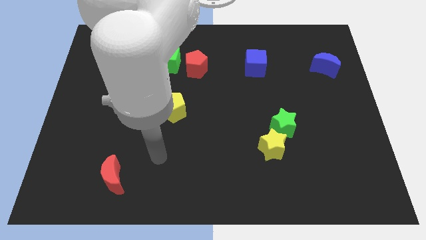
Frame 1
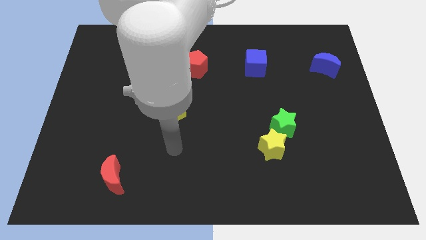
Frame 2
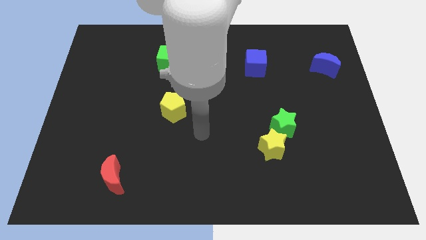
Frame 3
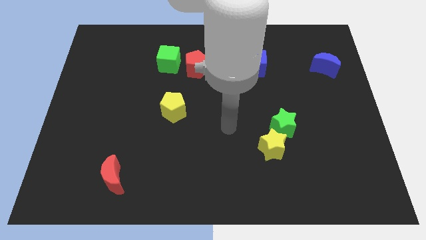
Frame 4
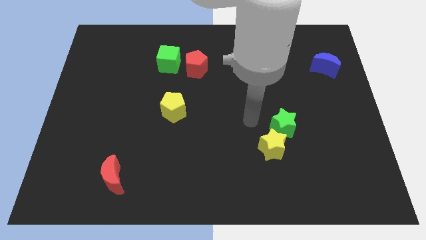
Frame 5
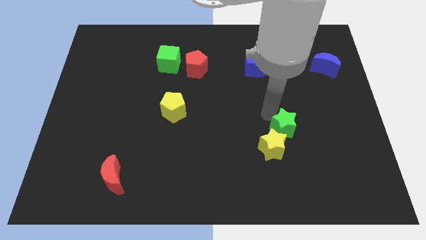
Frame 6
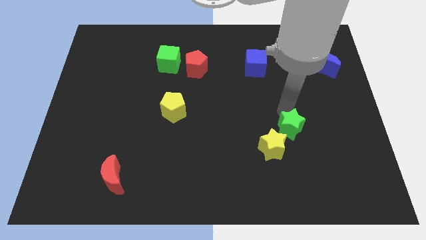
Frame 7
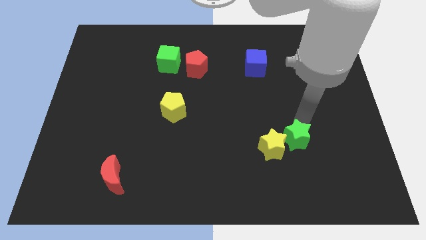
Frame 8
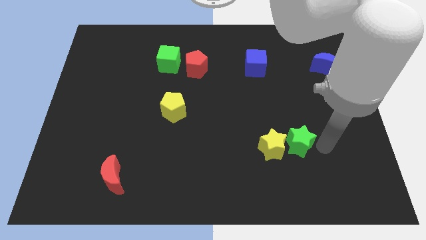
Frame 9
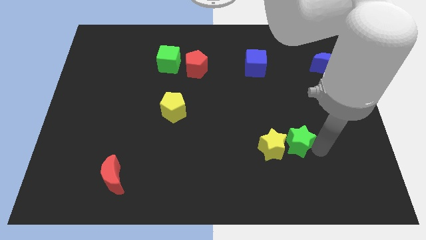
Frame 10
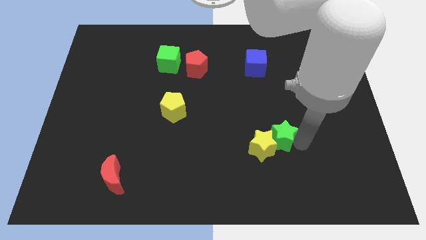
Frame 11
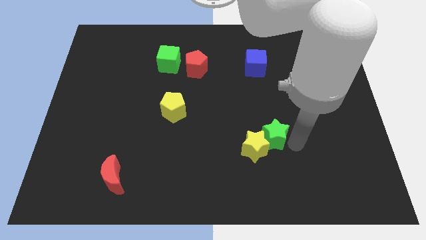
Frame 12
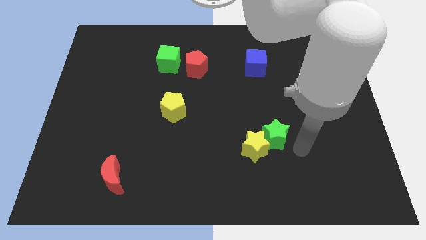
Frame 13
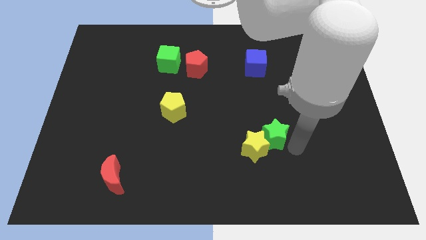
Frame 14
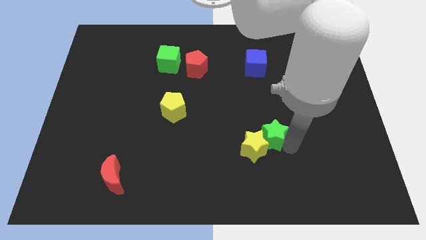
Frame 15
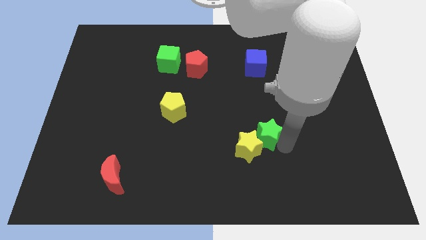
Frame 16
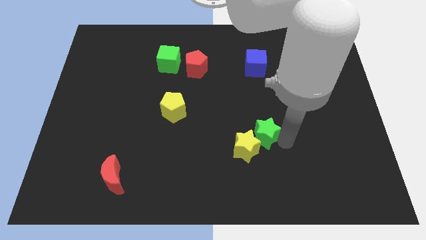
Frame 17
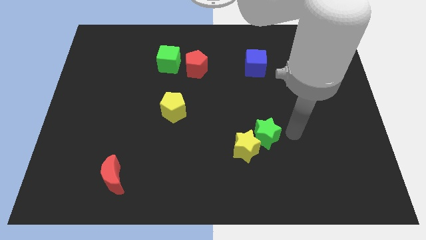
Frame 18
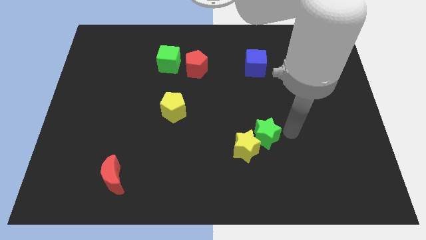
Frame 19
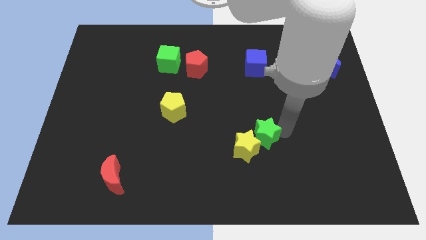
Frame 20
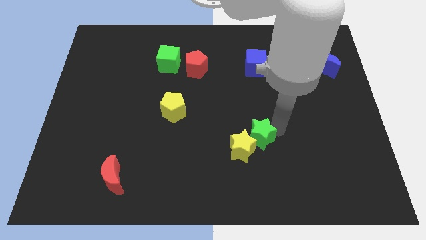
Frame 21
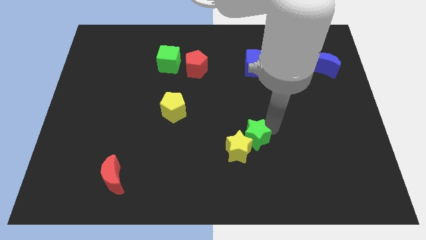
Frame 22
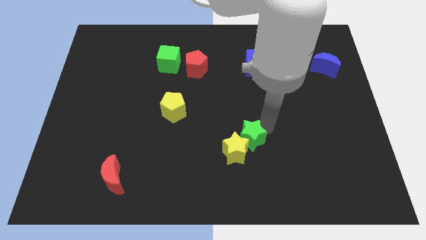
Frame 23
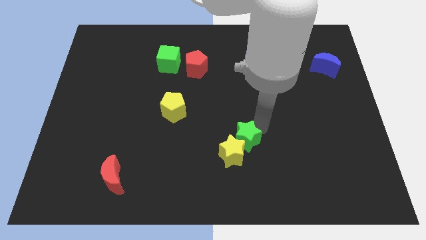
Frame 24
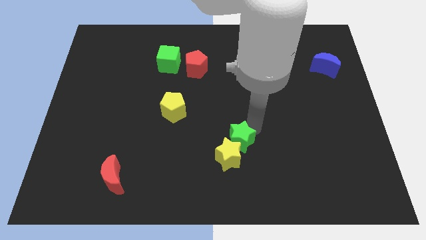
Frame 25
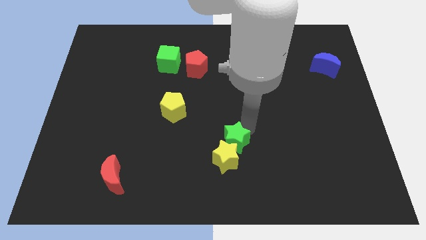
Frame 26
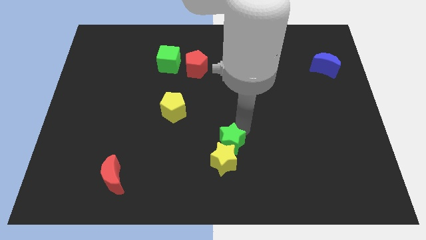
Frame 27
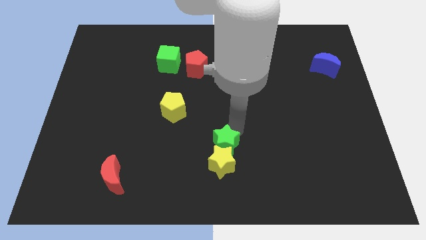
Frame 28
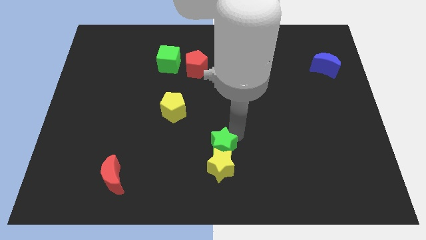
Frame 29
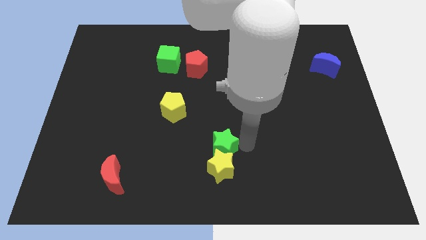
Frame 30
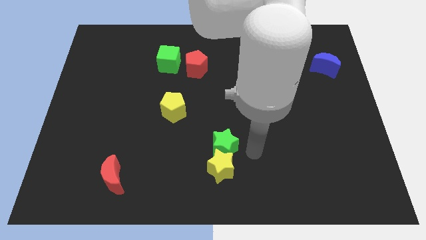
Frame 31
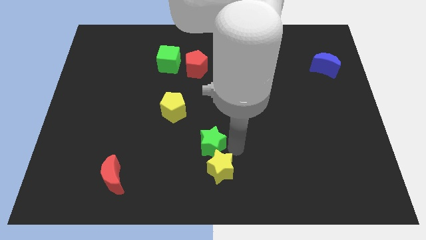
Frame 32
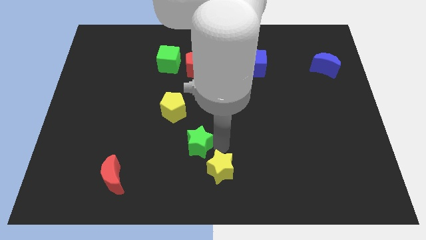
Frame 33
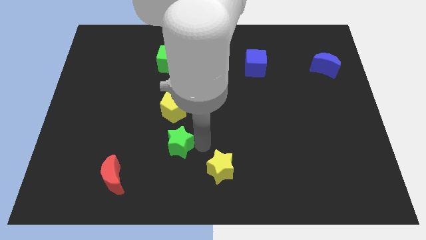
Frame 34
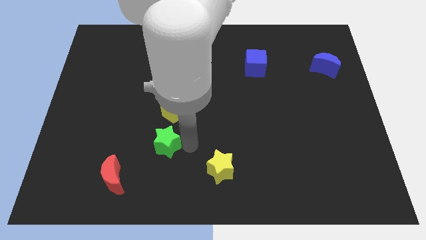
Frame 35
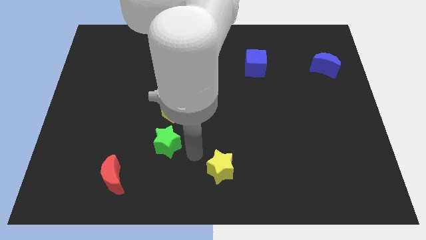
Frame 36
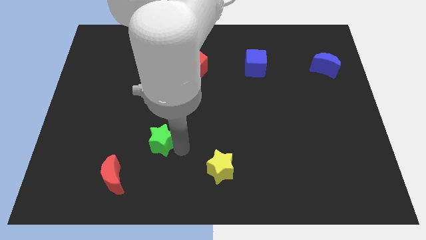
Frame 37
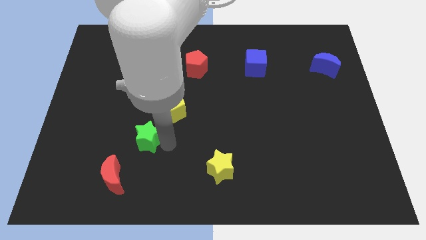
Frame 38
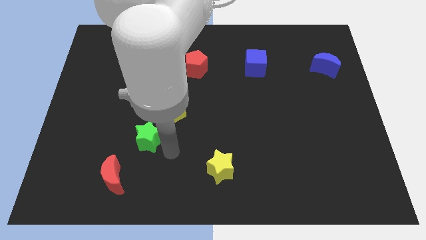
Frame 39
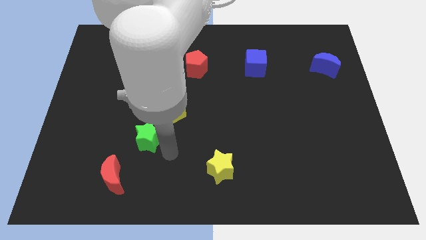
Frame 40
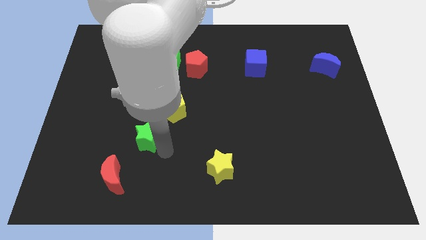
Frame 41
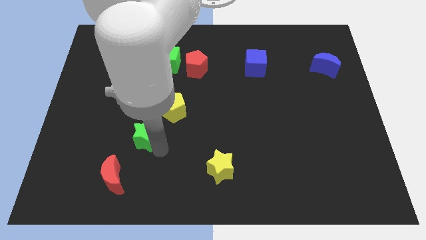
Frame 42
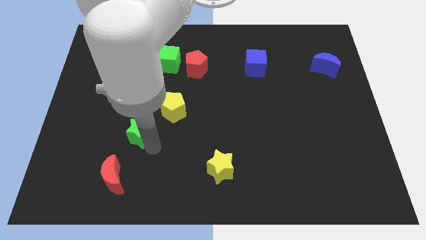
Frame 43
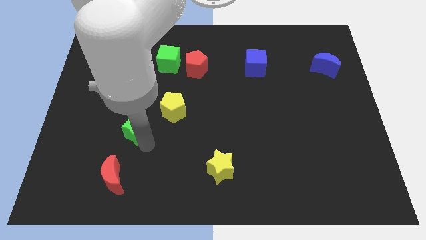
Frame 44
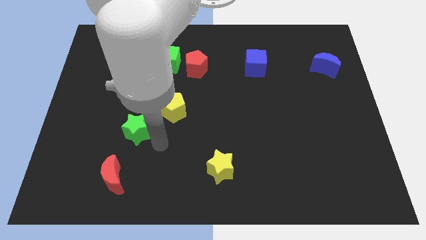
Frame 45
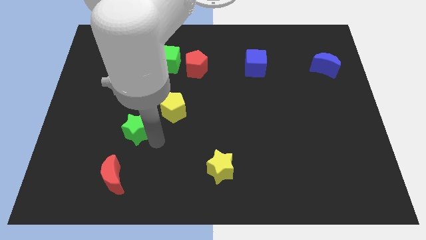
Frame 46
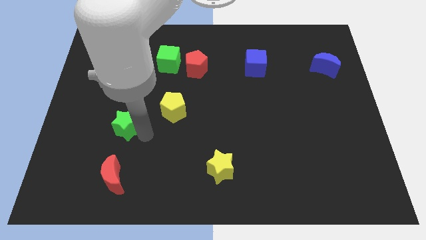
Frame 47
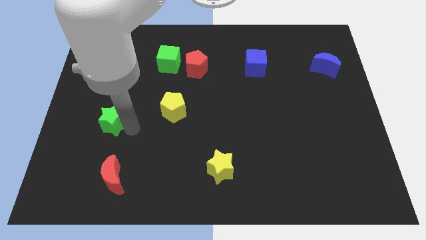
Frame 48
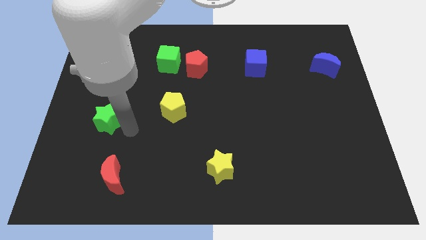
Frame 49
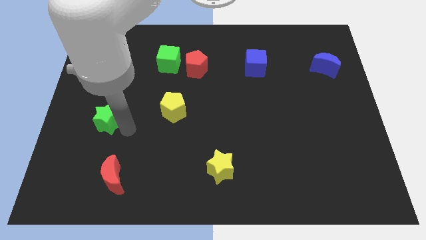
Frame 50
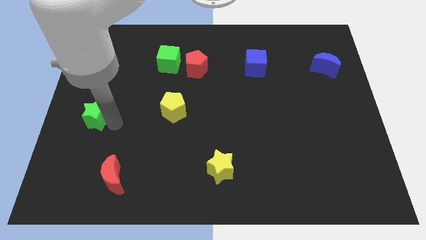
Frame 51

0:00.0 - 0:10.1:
put the green star to the left side

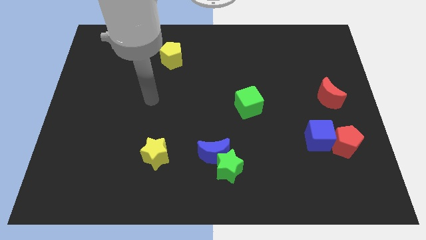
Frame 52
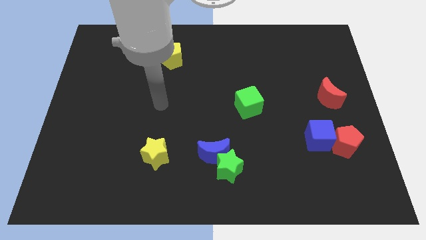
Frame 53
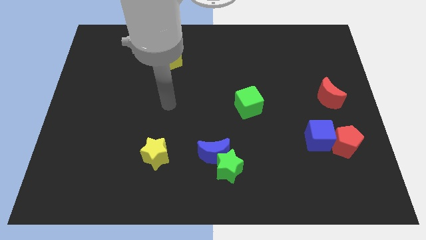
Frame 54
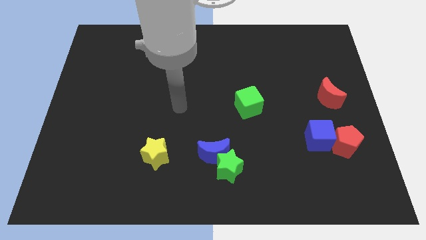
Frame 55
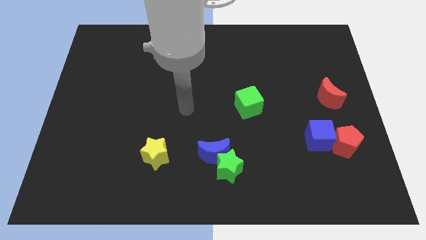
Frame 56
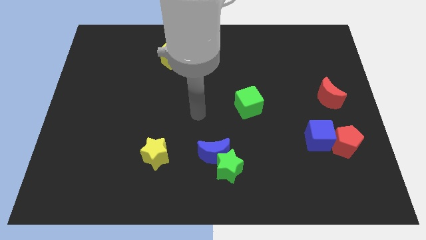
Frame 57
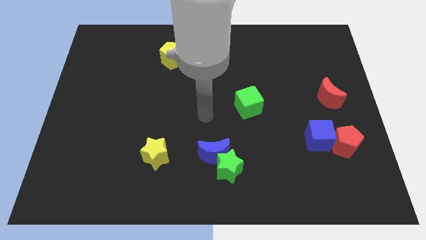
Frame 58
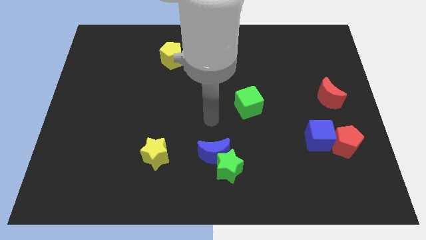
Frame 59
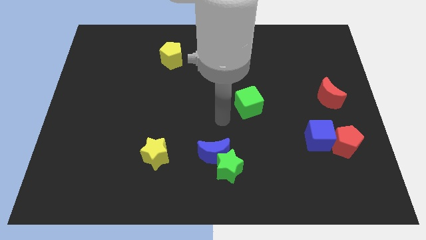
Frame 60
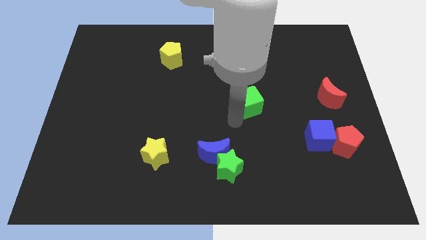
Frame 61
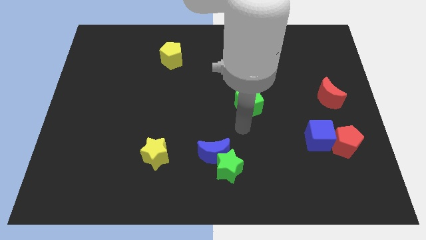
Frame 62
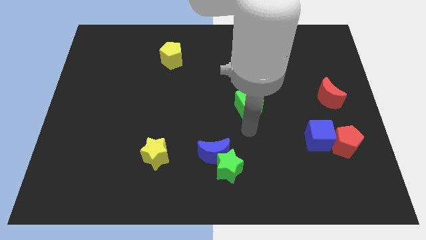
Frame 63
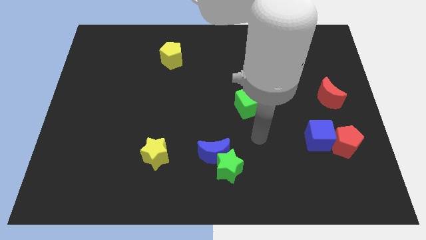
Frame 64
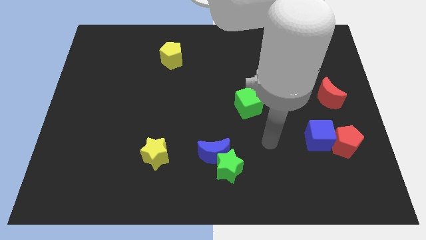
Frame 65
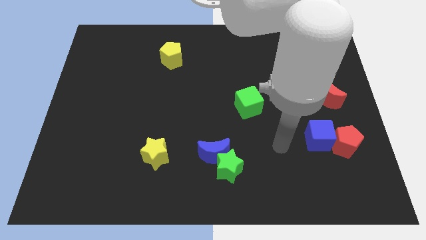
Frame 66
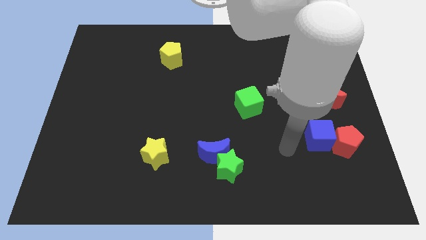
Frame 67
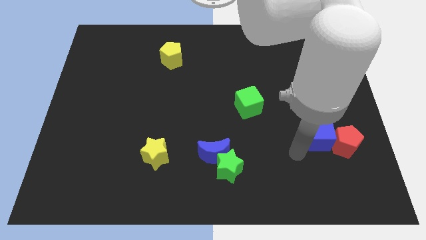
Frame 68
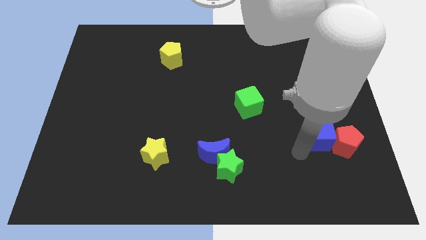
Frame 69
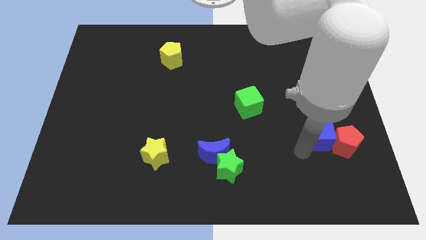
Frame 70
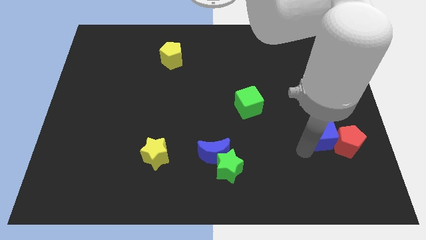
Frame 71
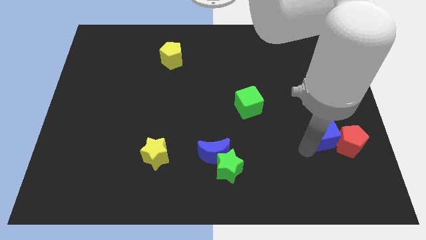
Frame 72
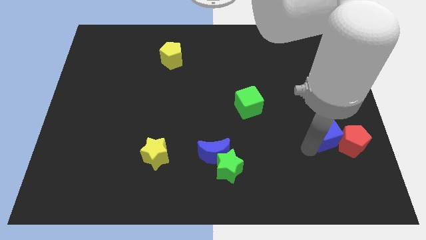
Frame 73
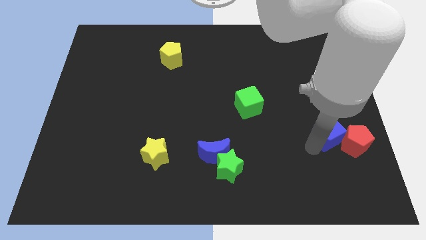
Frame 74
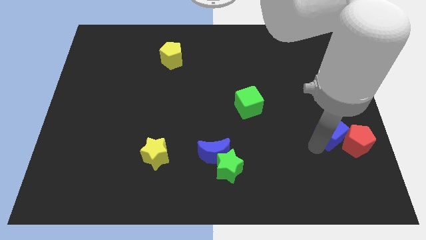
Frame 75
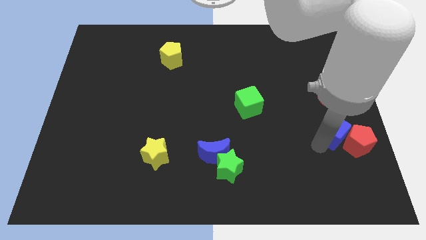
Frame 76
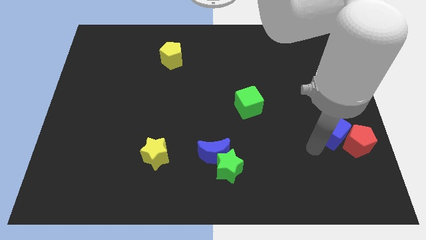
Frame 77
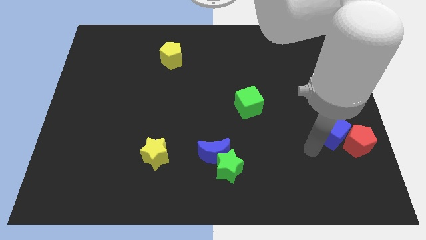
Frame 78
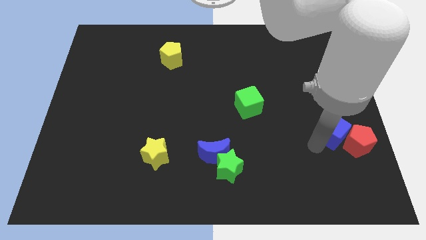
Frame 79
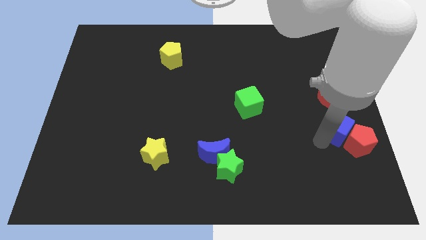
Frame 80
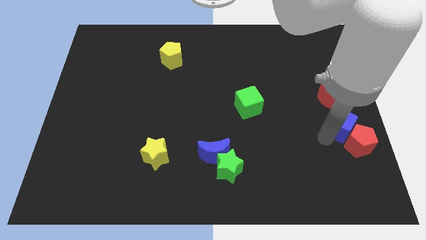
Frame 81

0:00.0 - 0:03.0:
move the blue cube to the right side
